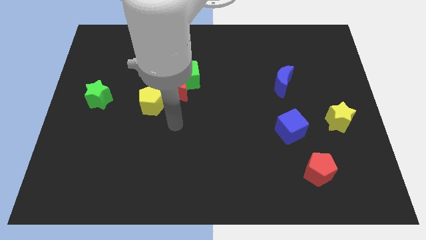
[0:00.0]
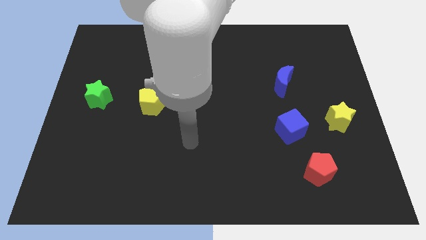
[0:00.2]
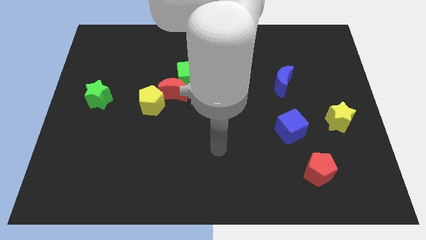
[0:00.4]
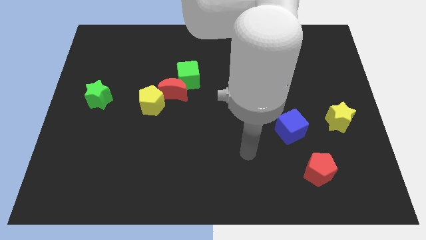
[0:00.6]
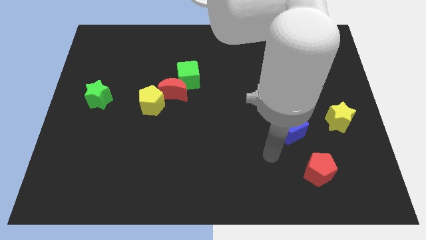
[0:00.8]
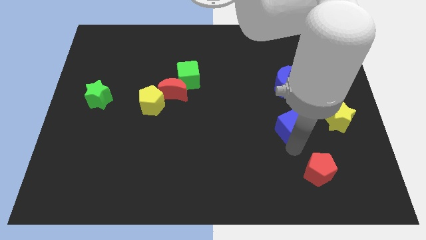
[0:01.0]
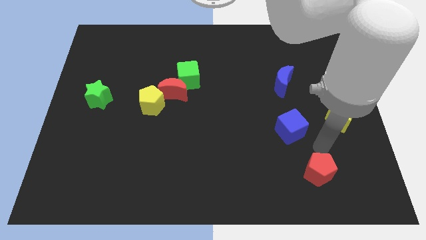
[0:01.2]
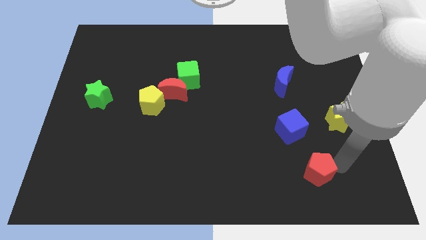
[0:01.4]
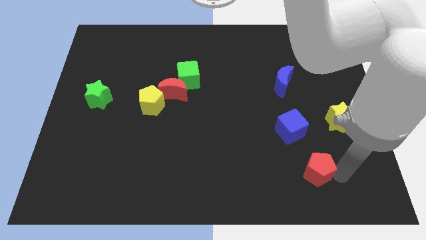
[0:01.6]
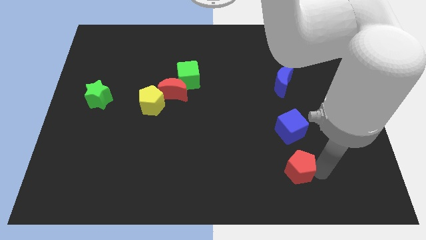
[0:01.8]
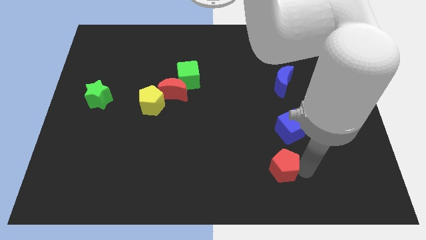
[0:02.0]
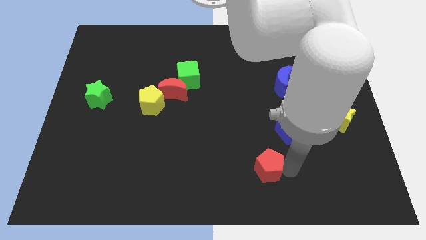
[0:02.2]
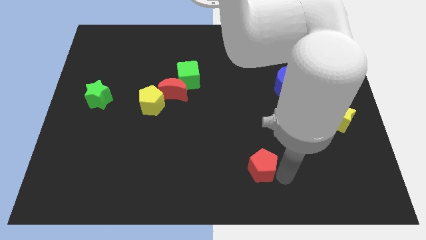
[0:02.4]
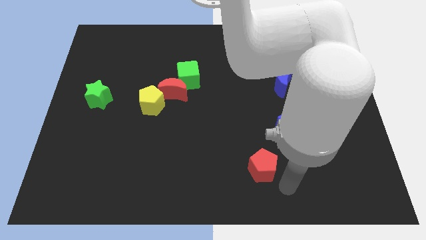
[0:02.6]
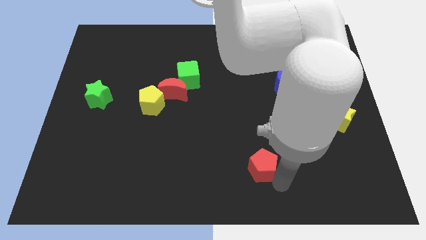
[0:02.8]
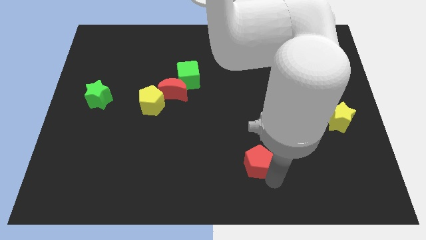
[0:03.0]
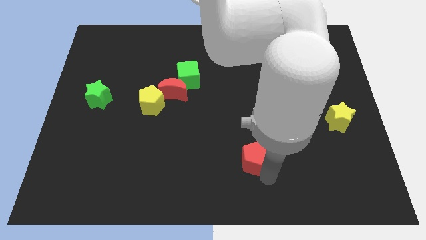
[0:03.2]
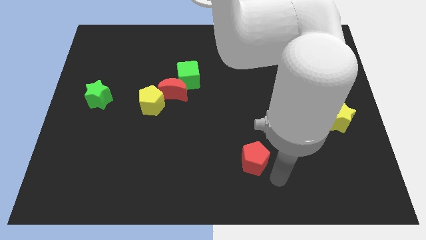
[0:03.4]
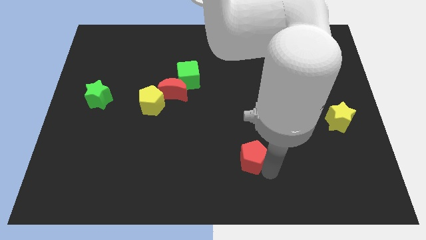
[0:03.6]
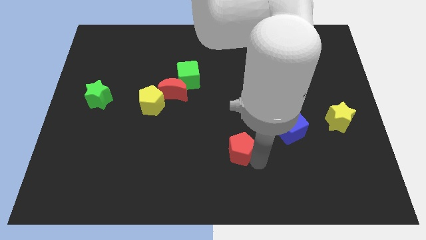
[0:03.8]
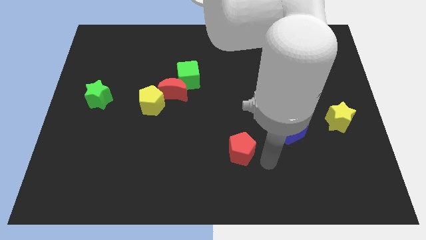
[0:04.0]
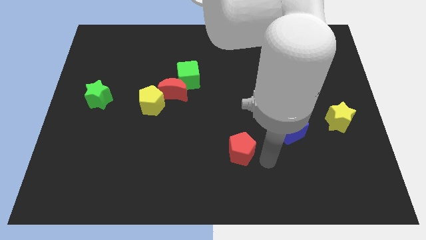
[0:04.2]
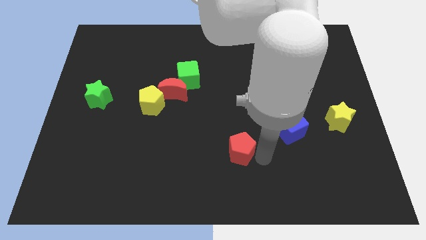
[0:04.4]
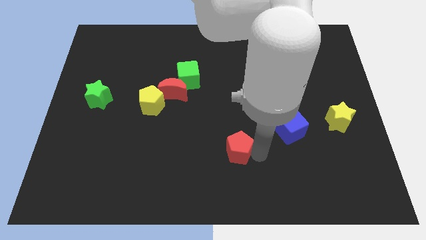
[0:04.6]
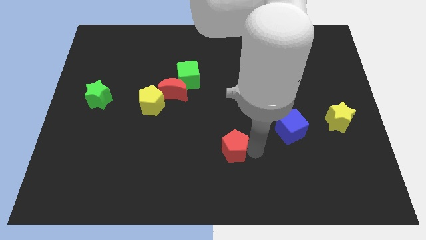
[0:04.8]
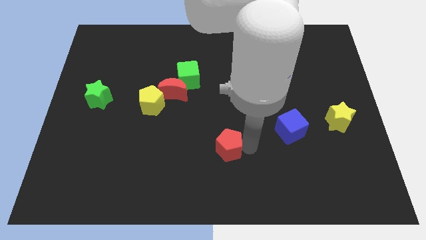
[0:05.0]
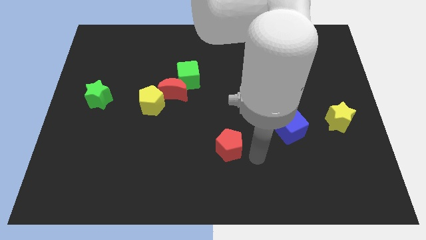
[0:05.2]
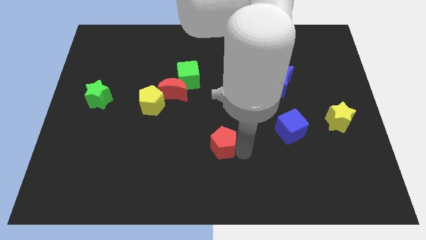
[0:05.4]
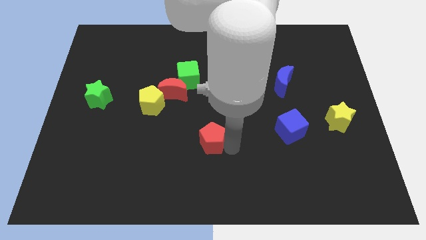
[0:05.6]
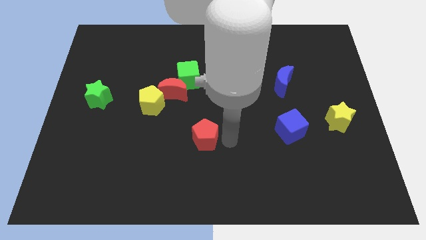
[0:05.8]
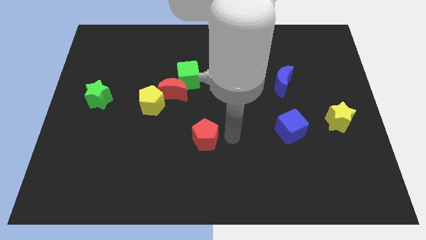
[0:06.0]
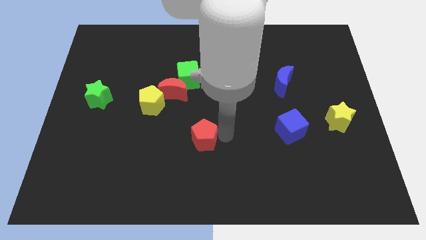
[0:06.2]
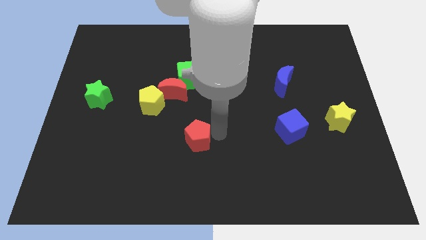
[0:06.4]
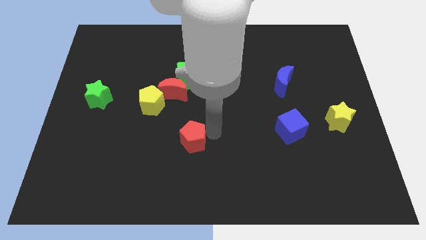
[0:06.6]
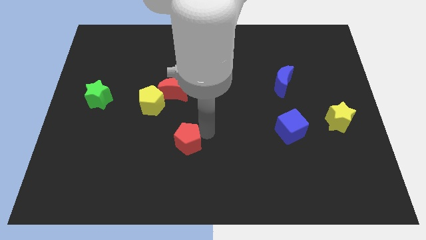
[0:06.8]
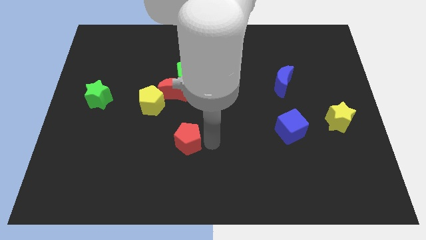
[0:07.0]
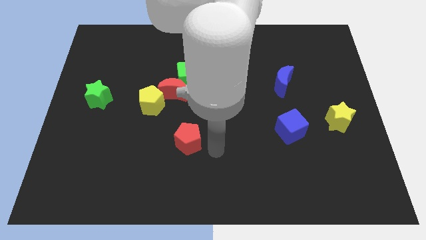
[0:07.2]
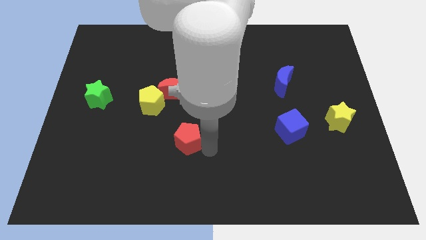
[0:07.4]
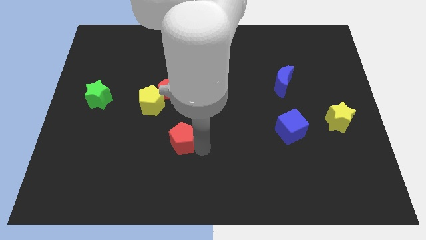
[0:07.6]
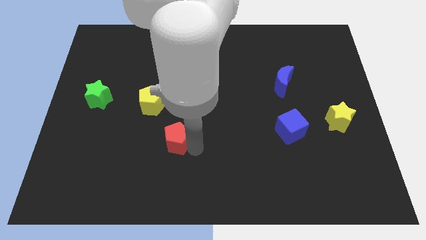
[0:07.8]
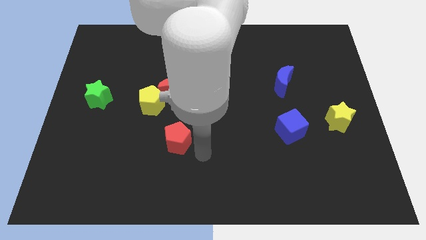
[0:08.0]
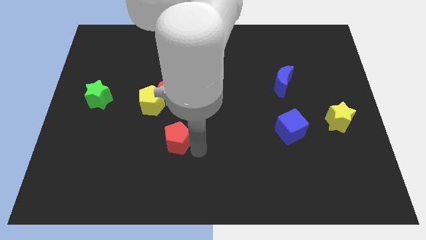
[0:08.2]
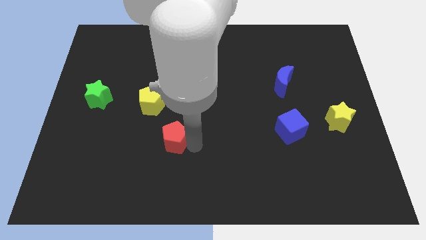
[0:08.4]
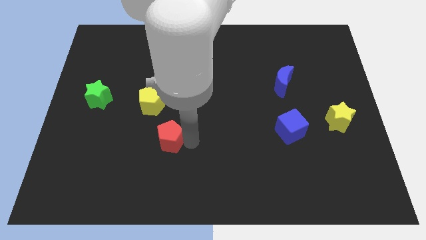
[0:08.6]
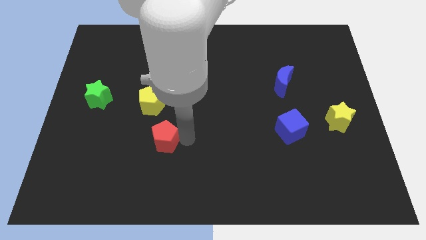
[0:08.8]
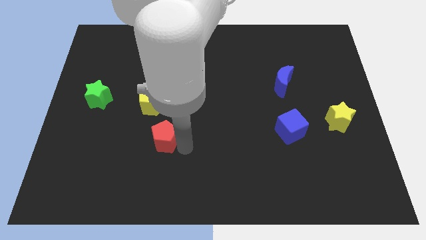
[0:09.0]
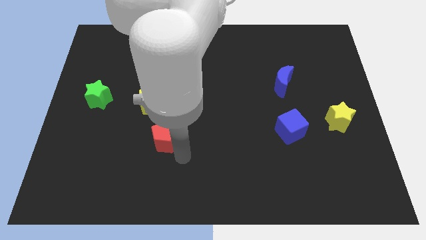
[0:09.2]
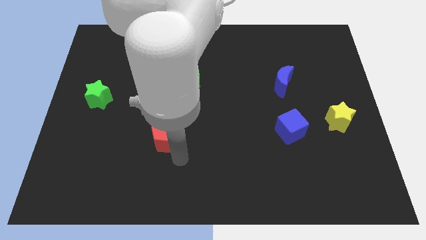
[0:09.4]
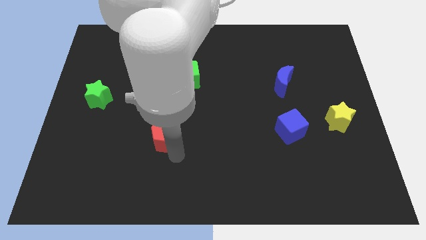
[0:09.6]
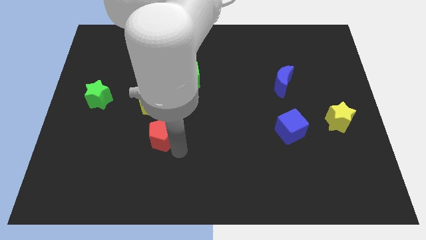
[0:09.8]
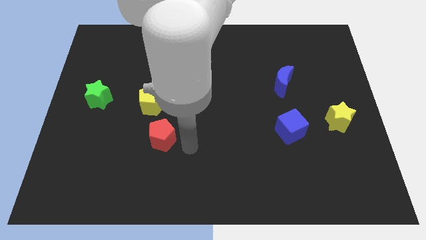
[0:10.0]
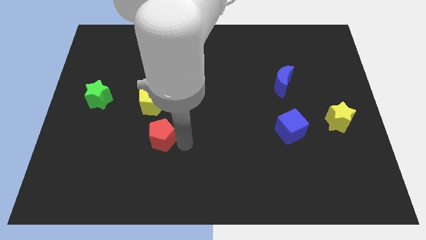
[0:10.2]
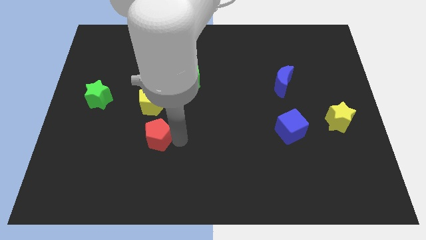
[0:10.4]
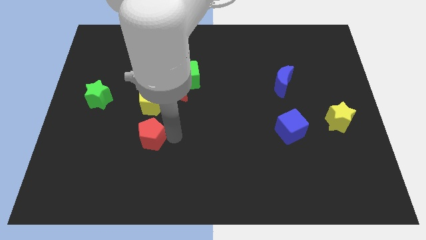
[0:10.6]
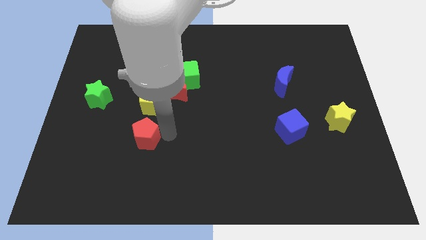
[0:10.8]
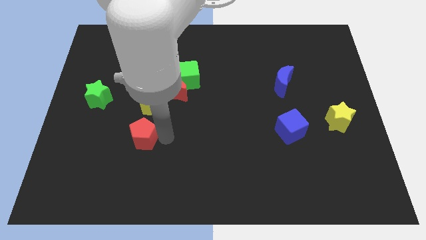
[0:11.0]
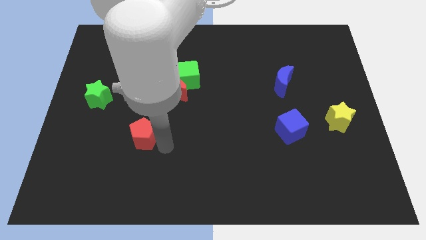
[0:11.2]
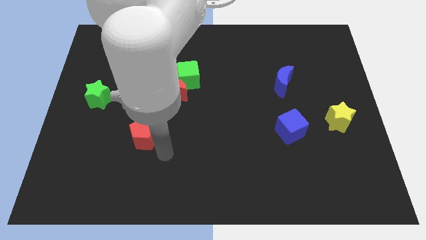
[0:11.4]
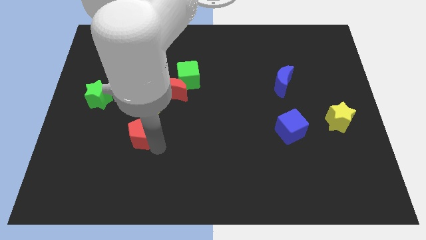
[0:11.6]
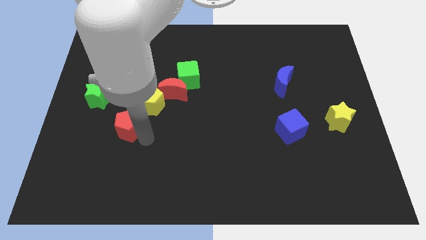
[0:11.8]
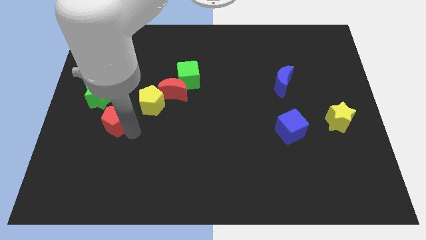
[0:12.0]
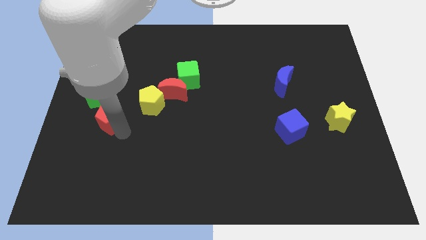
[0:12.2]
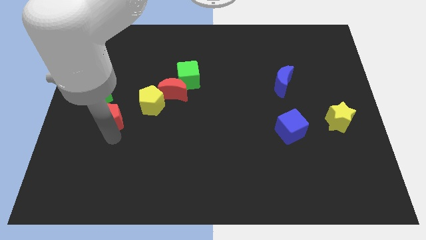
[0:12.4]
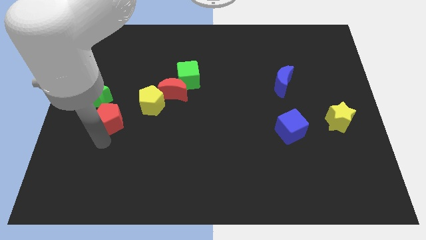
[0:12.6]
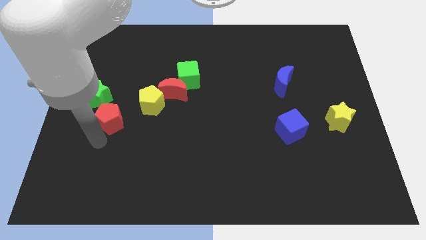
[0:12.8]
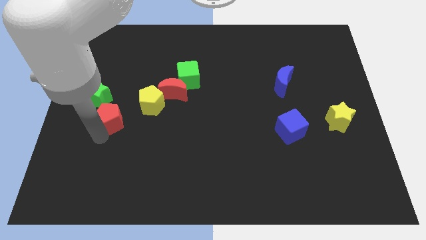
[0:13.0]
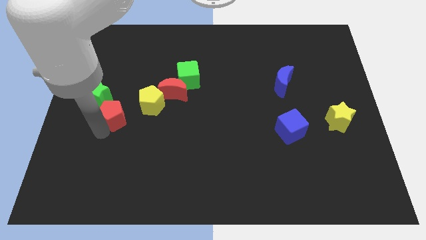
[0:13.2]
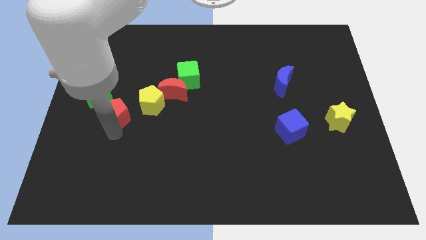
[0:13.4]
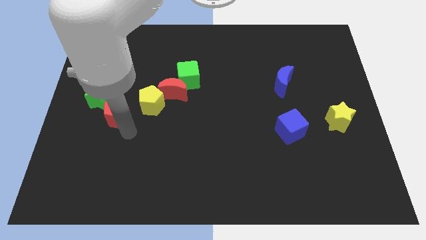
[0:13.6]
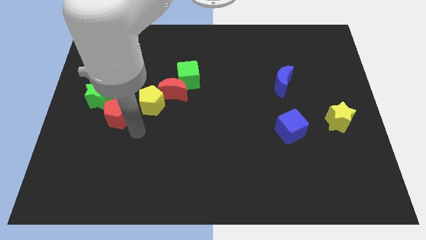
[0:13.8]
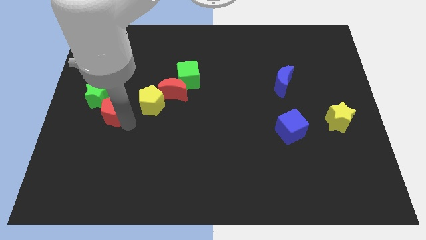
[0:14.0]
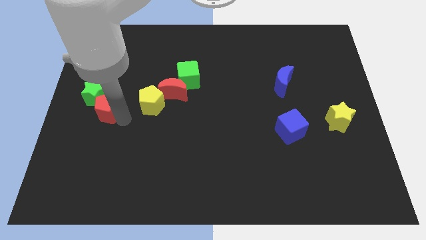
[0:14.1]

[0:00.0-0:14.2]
move the red pentagon next to the green star

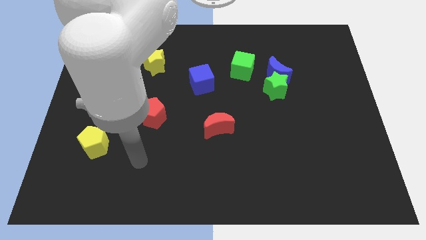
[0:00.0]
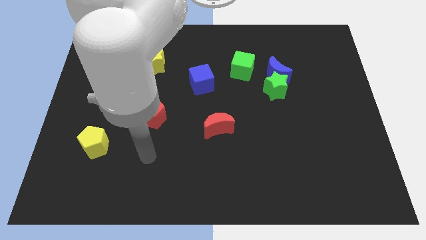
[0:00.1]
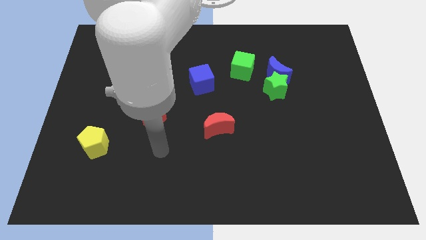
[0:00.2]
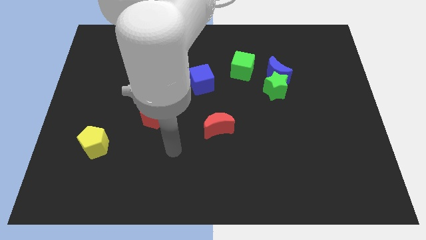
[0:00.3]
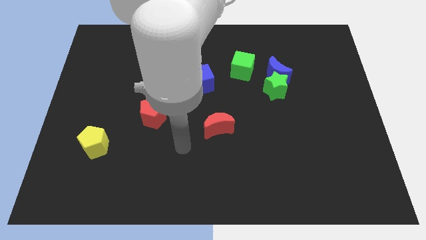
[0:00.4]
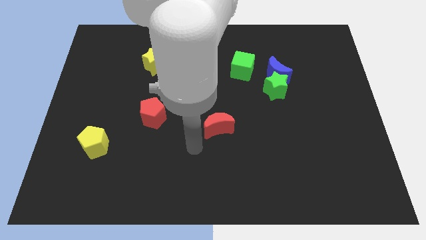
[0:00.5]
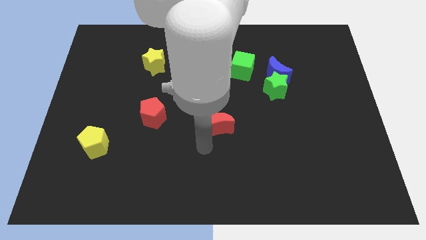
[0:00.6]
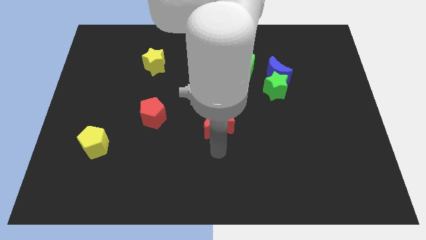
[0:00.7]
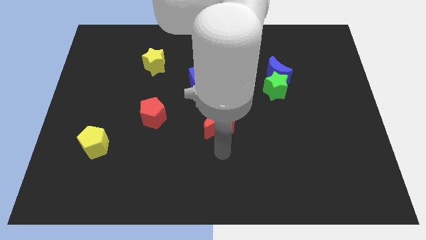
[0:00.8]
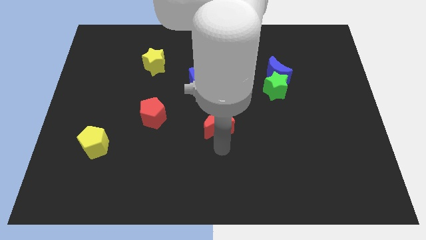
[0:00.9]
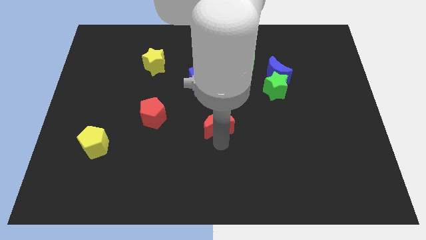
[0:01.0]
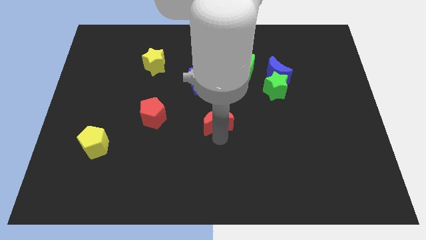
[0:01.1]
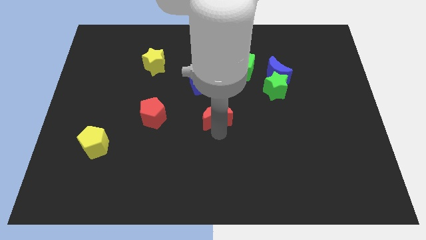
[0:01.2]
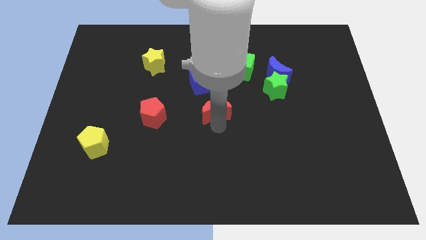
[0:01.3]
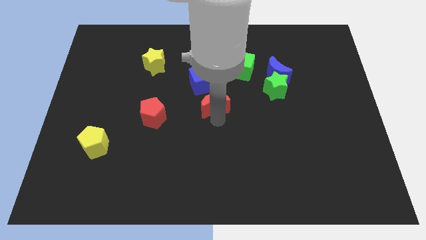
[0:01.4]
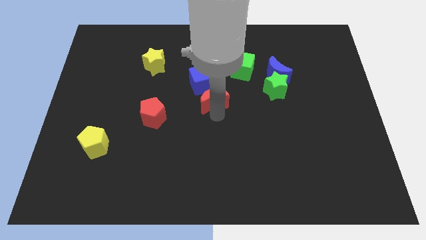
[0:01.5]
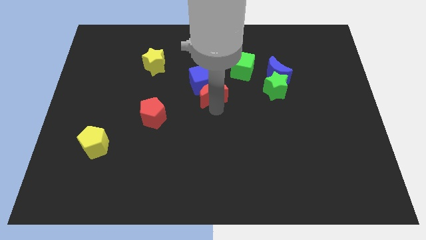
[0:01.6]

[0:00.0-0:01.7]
put the red moon towards the blue cube
